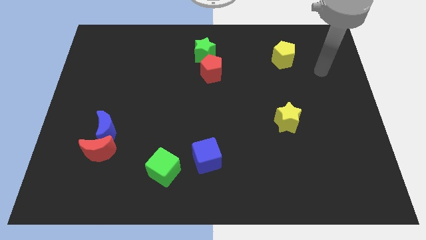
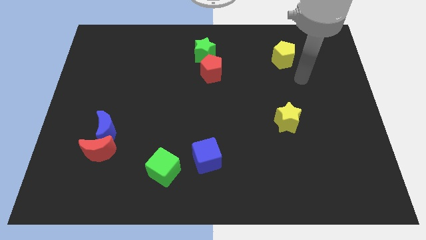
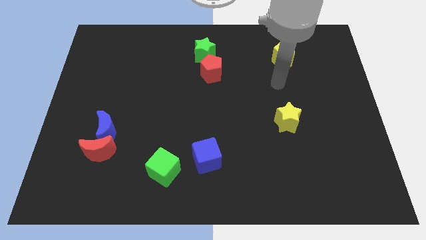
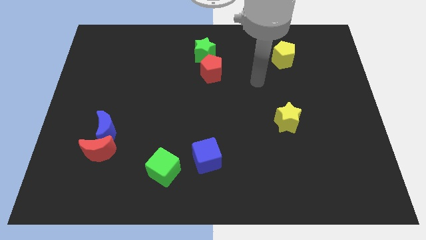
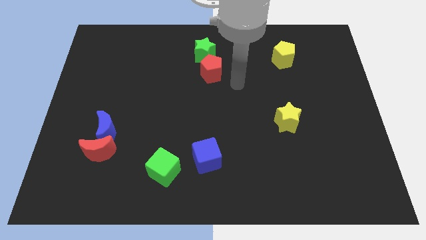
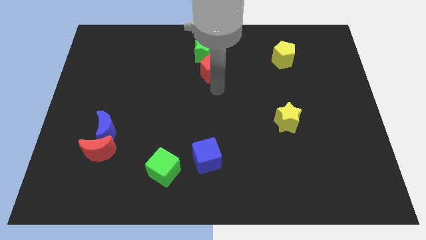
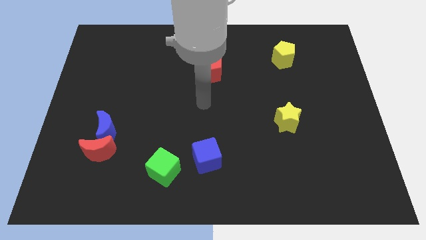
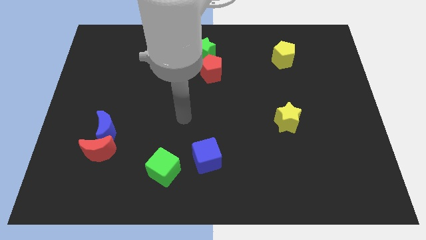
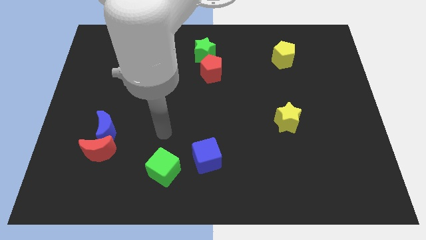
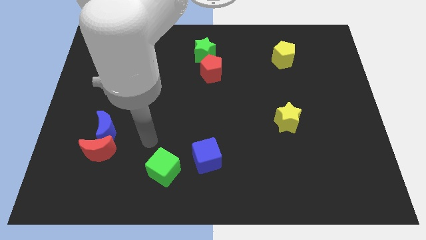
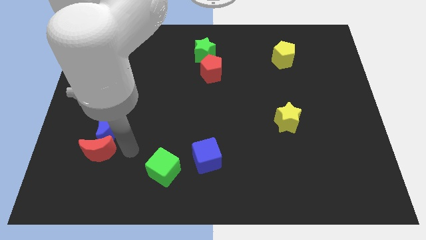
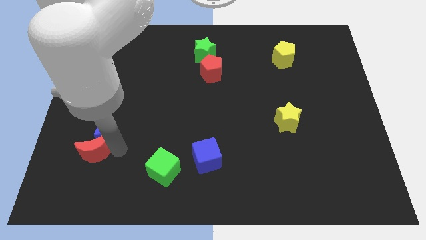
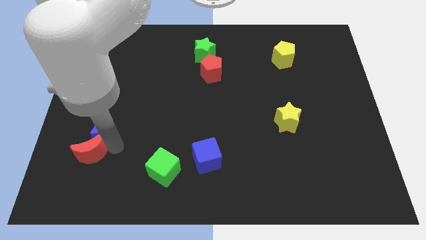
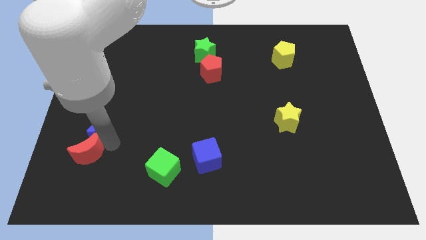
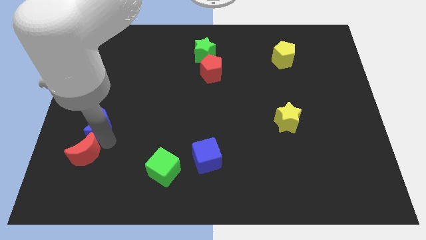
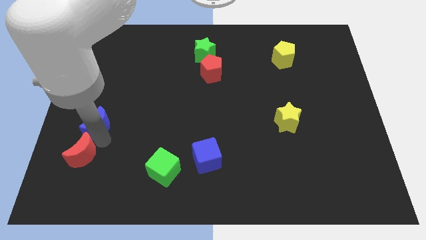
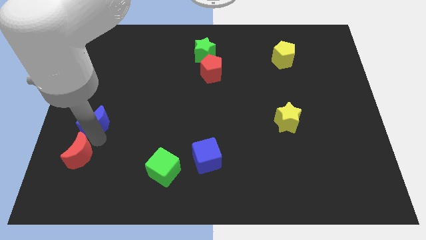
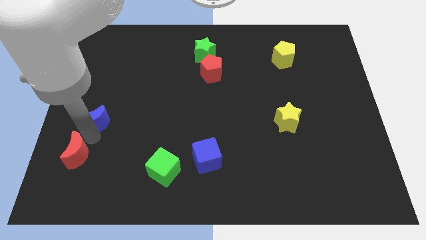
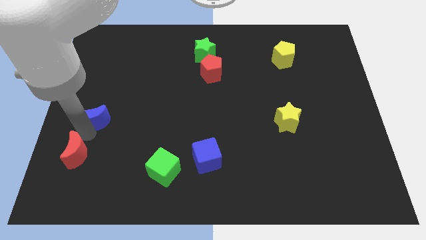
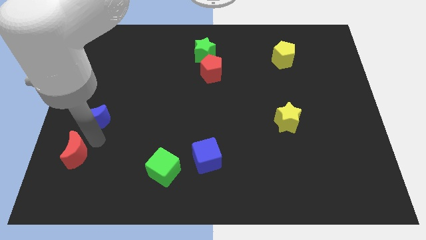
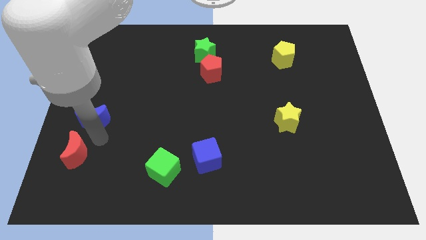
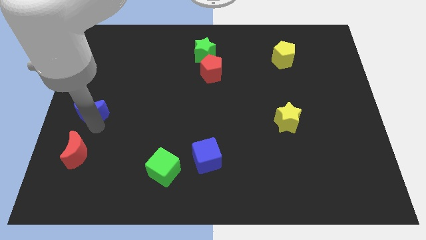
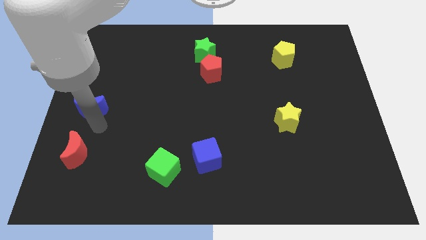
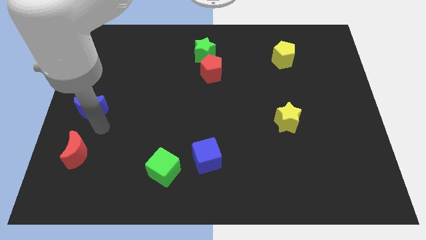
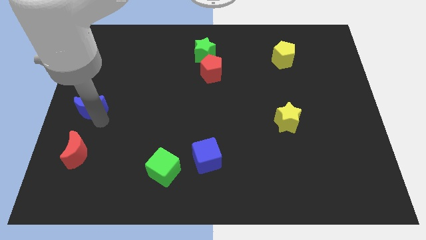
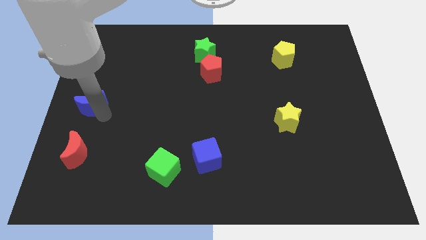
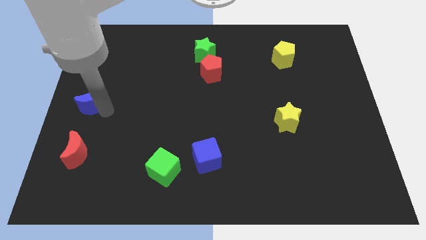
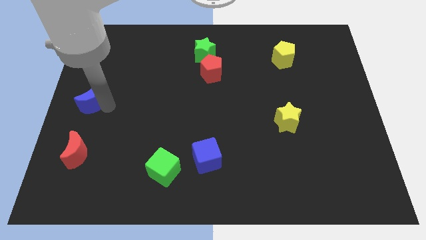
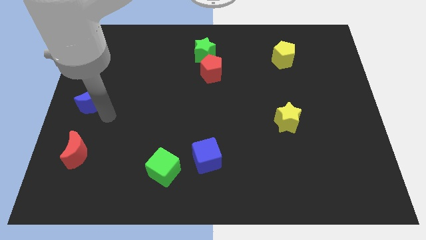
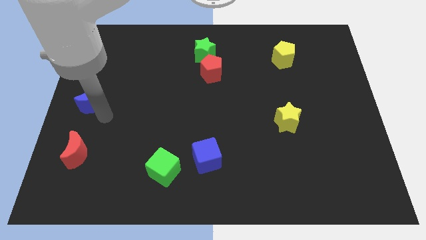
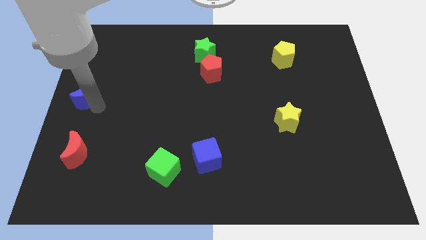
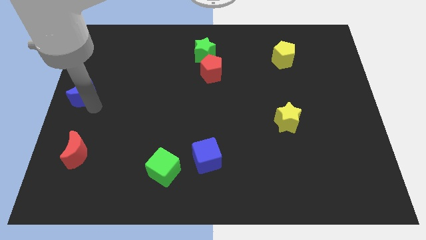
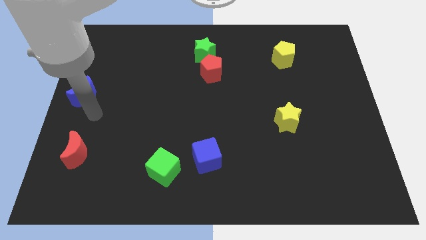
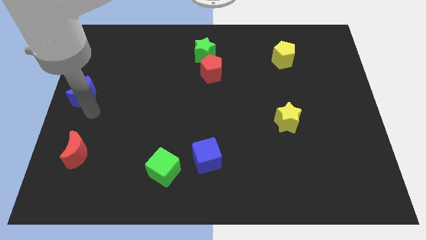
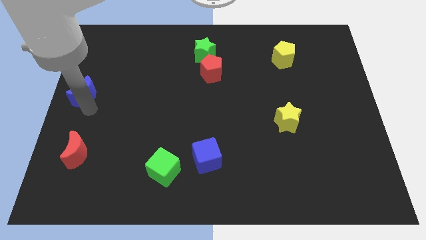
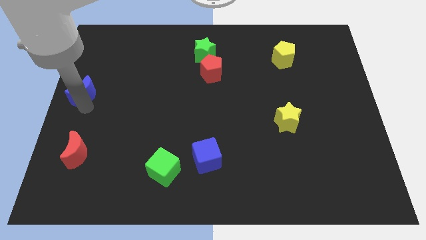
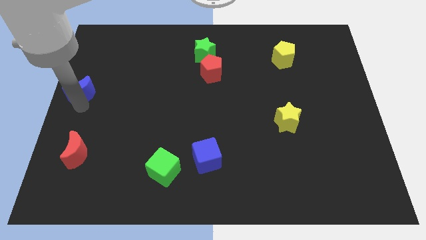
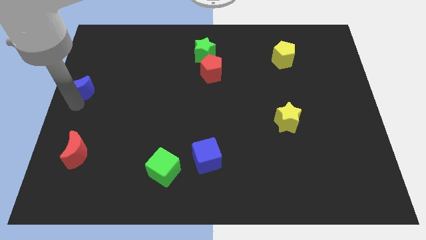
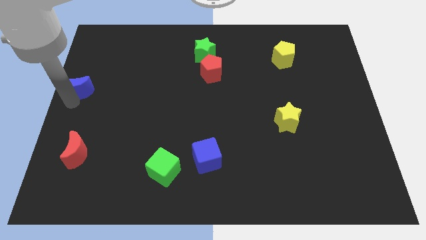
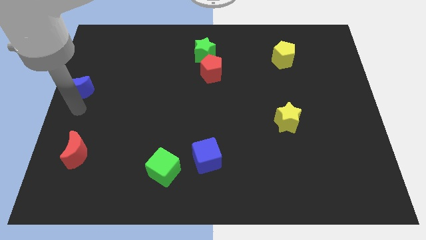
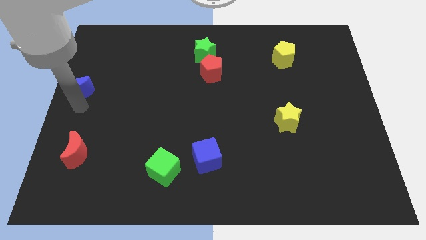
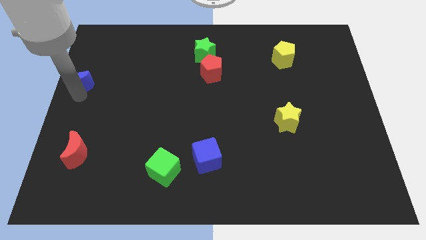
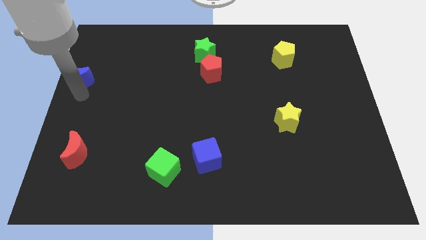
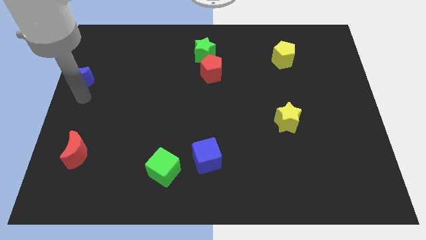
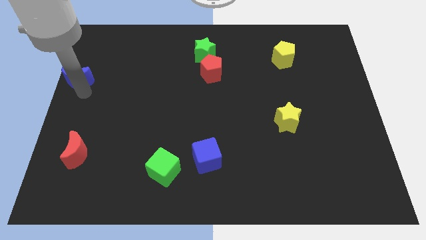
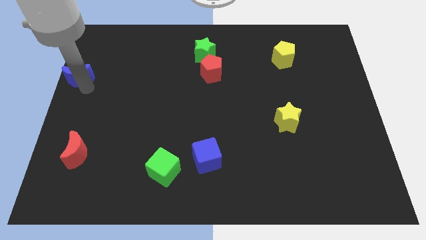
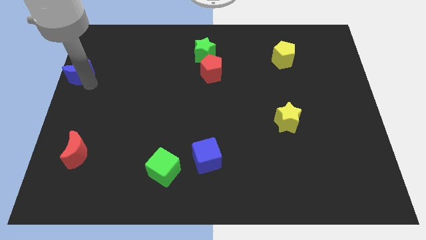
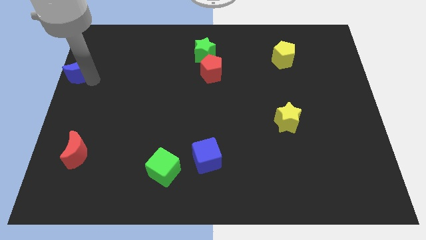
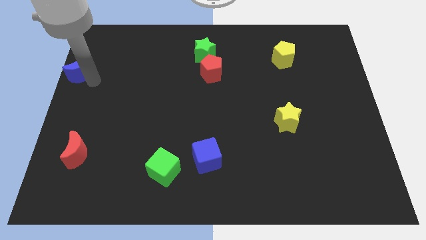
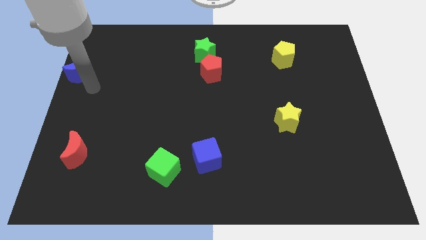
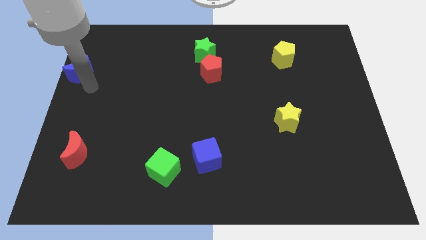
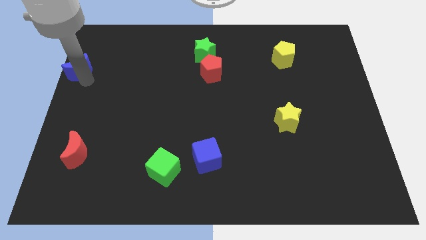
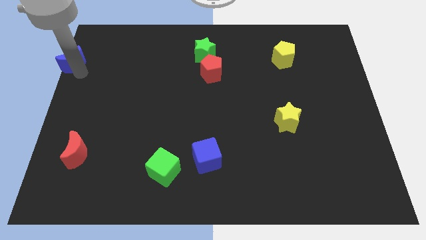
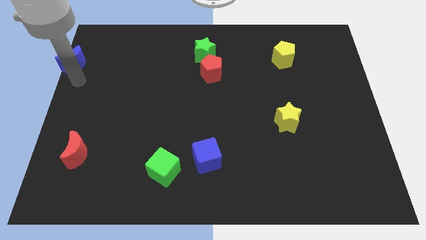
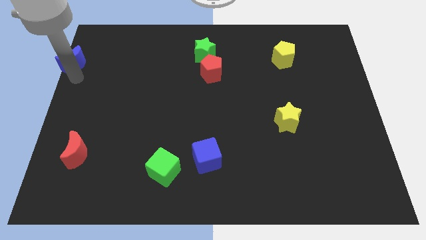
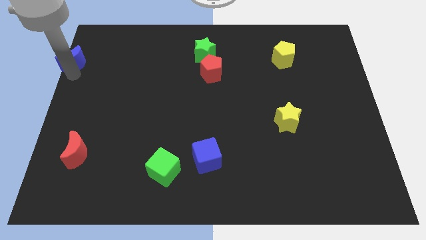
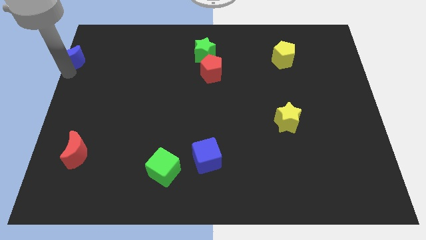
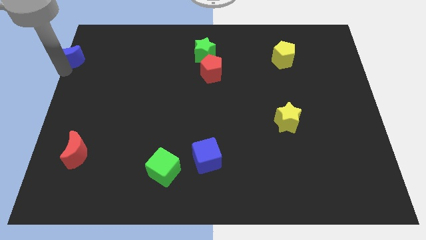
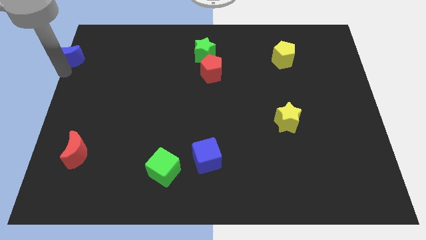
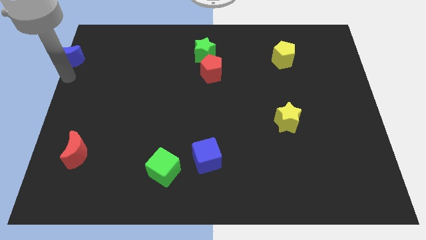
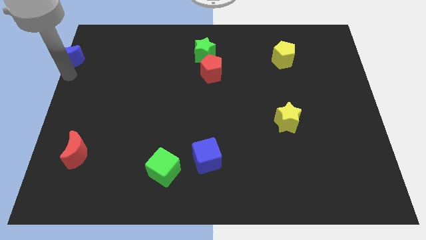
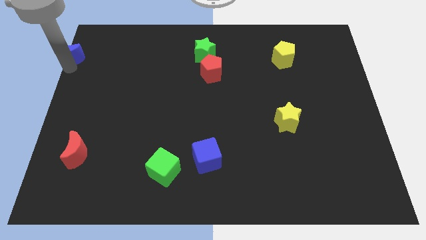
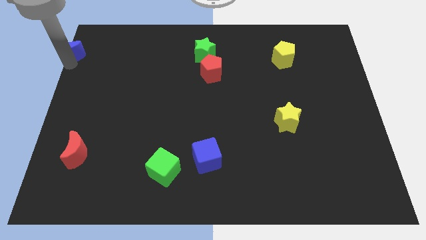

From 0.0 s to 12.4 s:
slide the blue moon to the top left of the board
